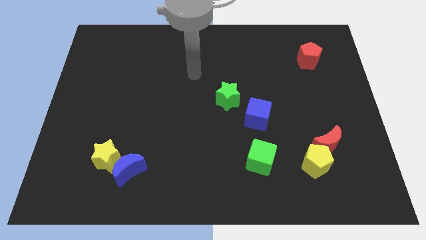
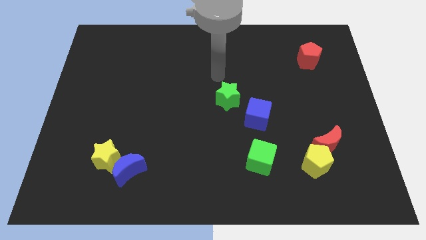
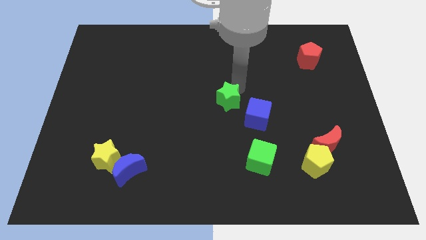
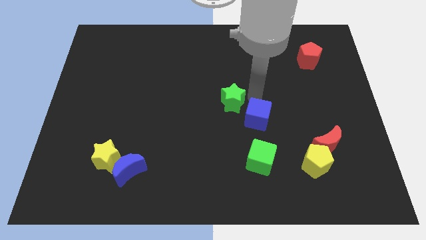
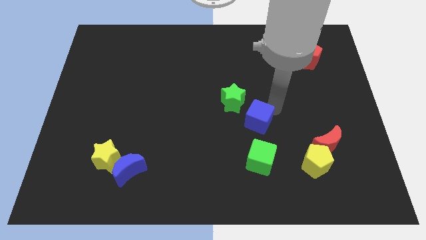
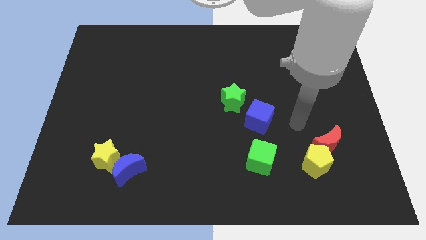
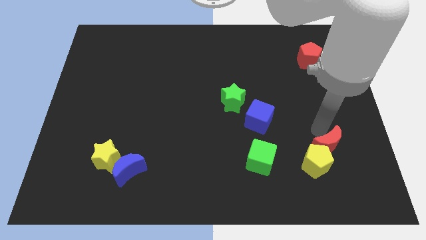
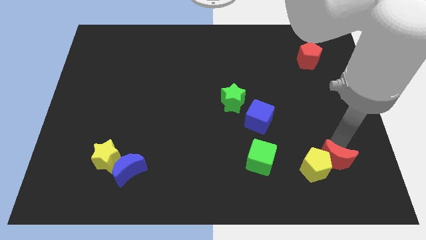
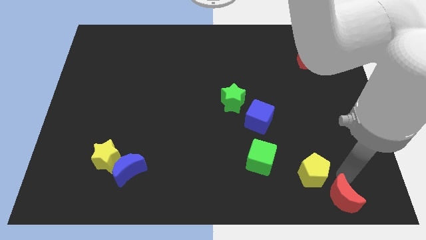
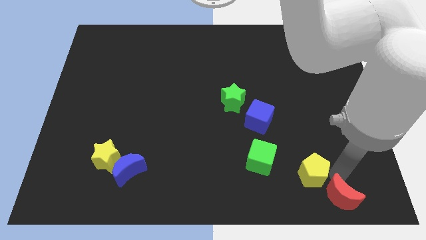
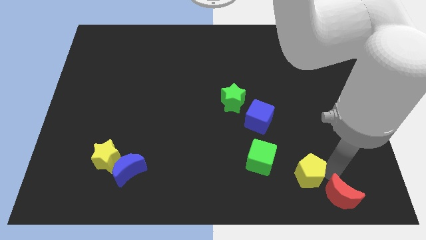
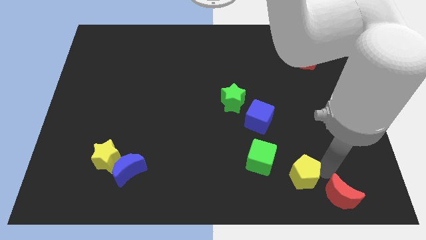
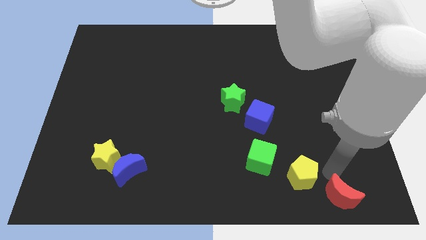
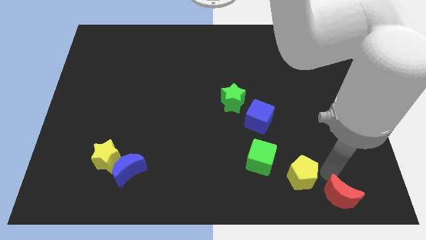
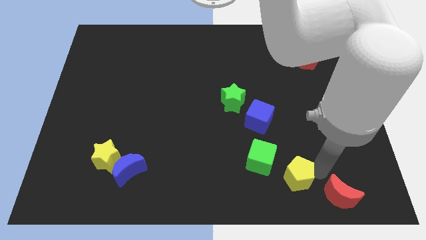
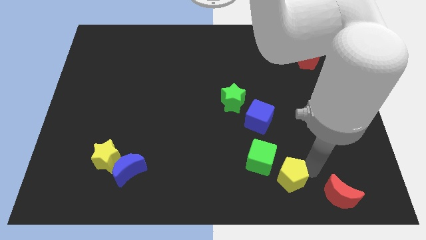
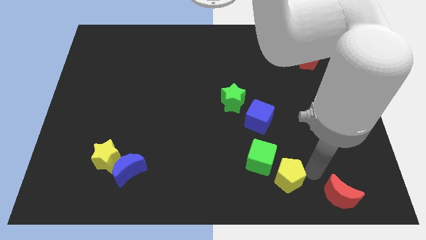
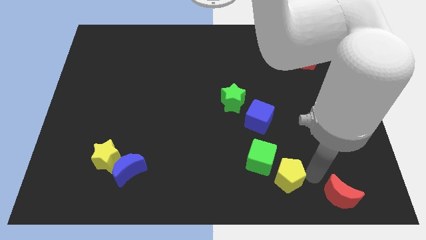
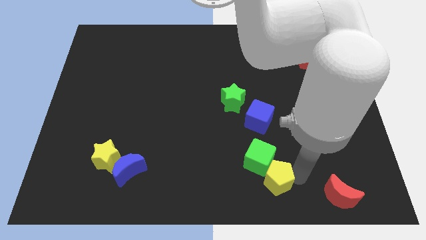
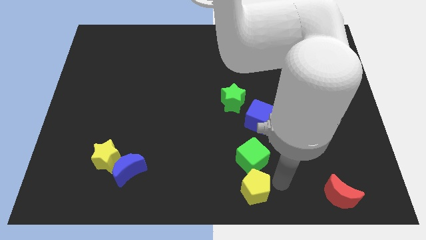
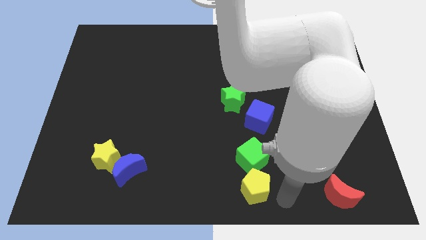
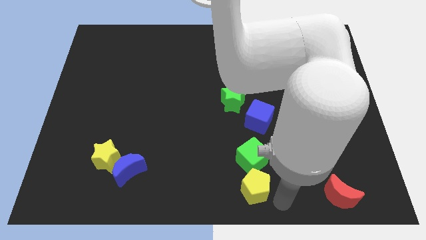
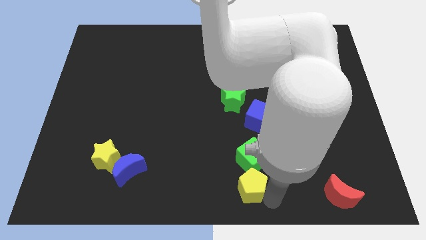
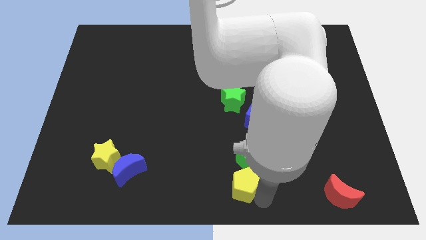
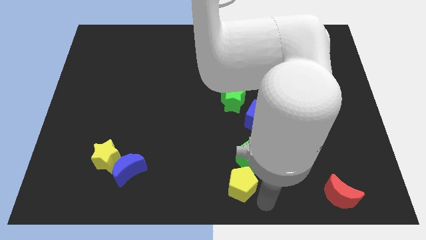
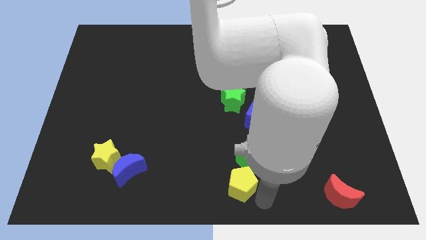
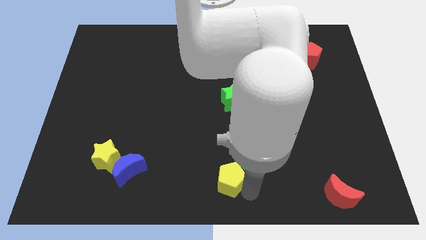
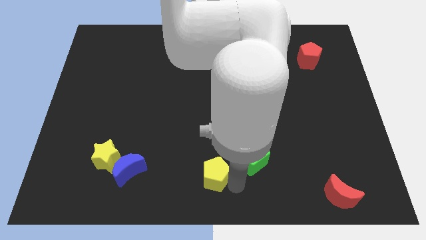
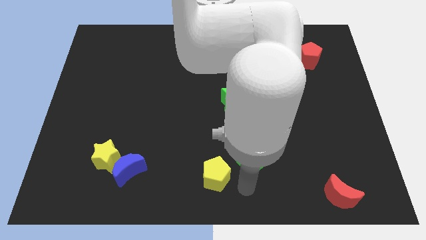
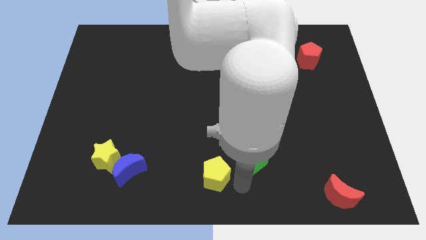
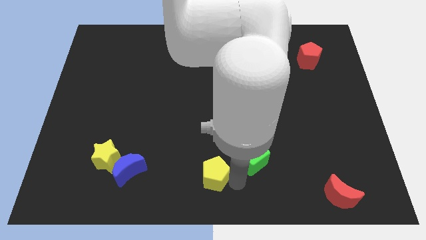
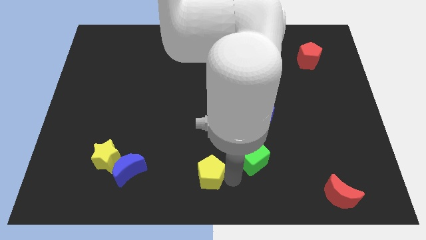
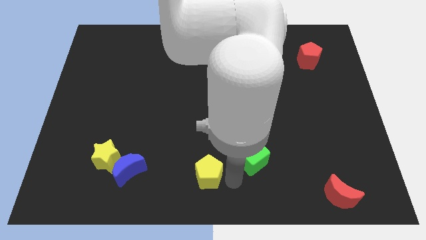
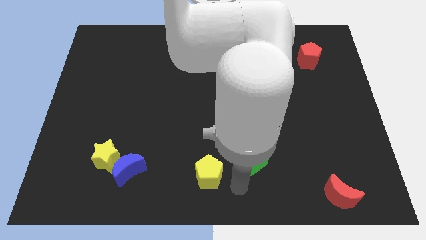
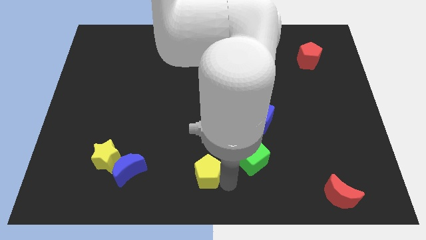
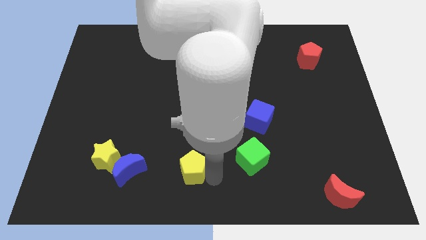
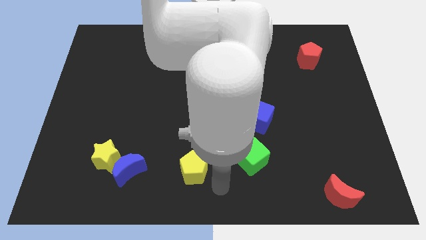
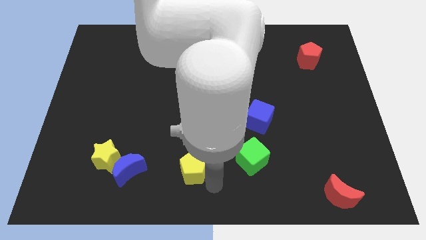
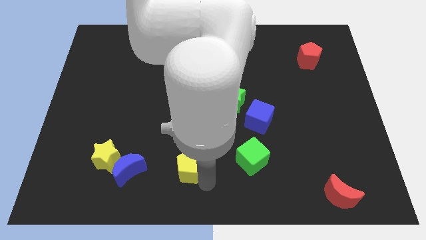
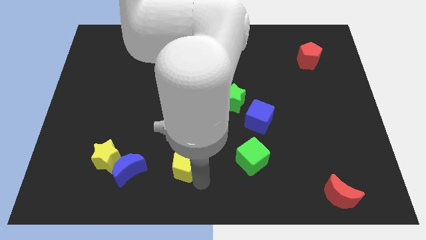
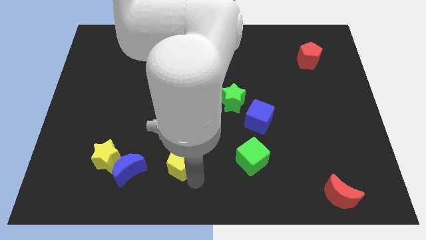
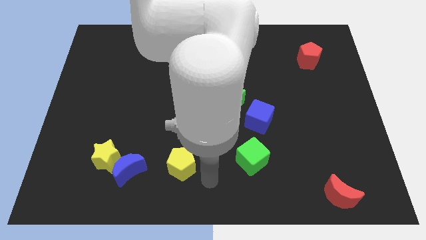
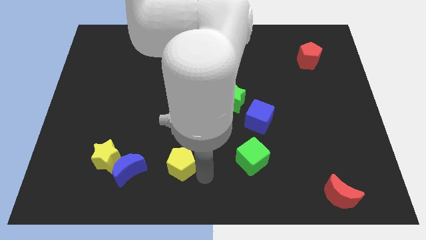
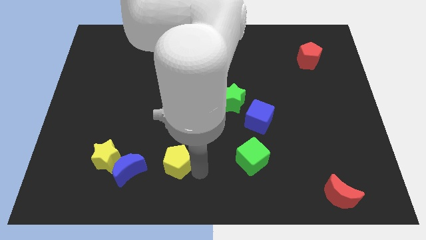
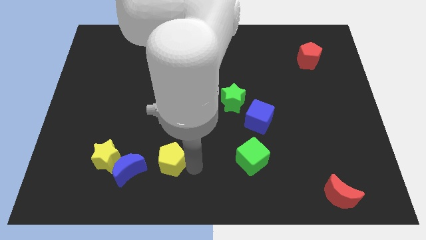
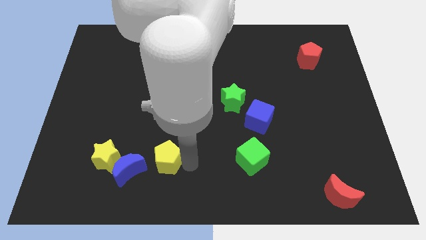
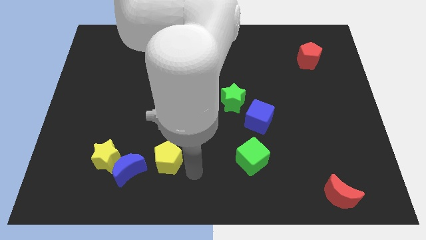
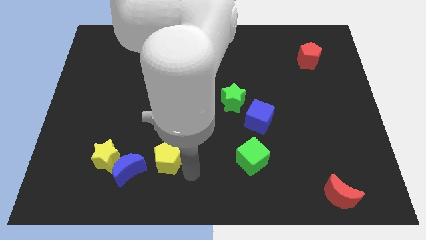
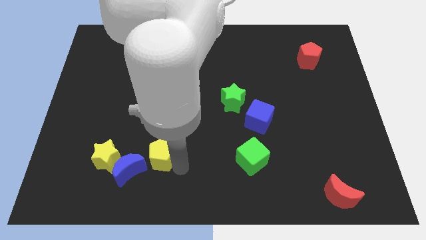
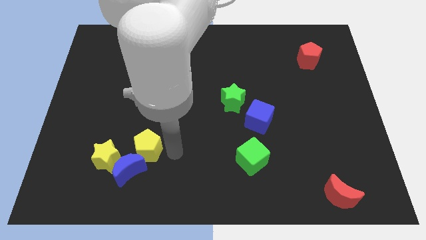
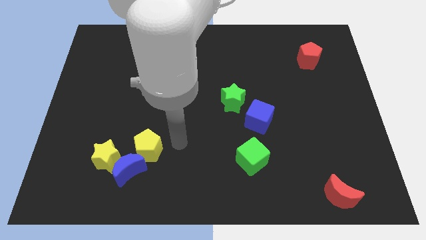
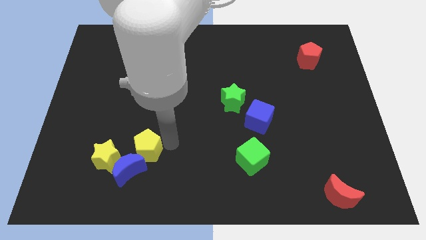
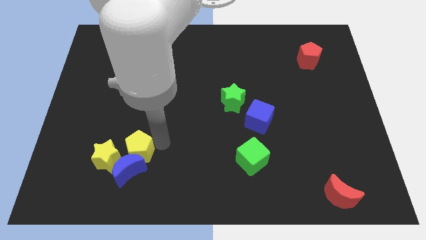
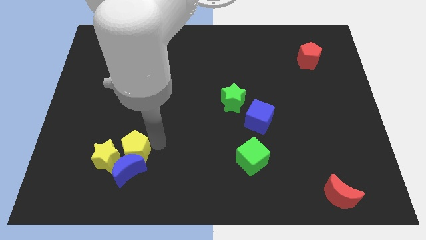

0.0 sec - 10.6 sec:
move the yellow pentagon next to the yellow star

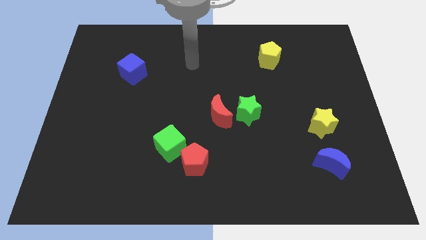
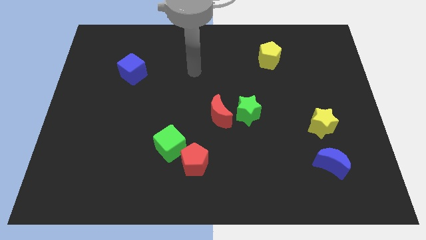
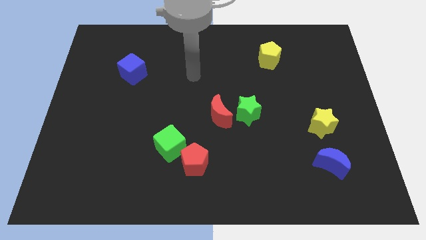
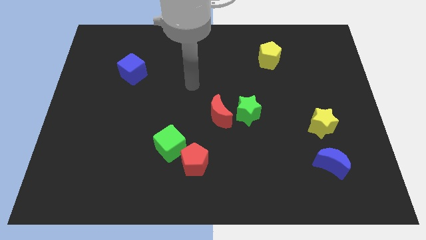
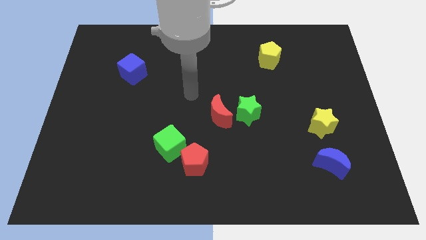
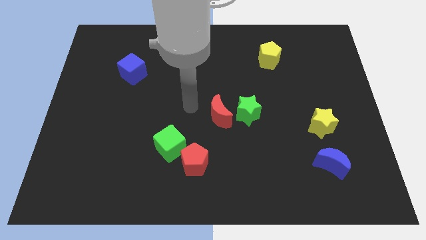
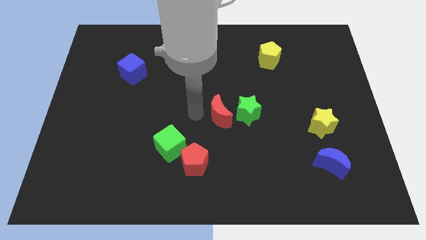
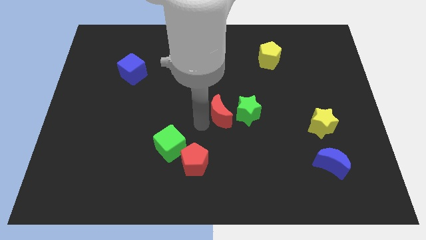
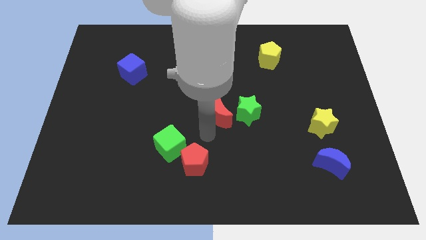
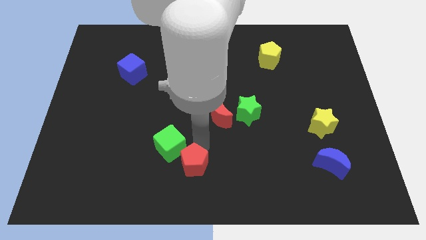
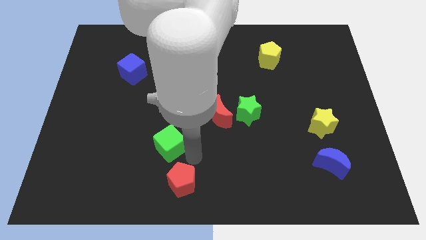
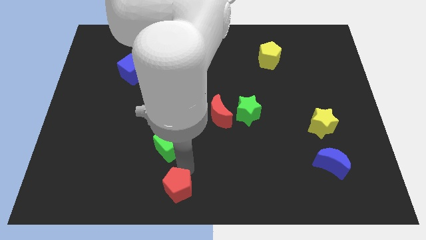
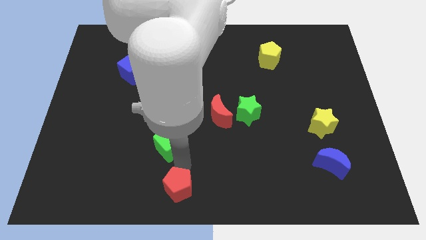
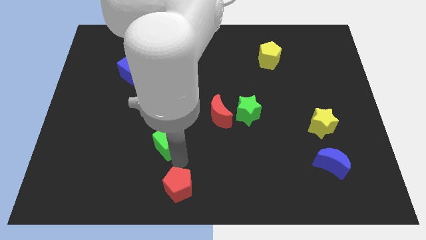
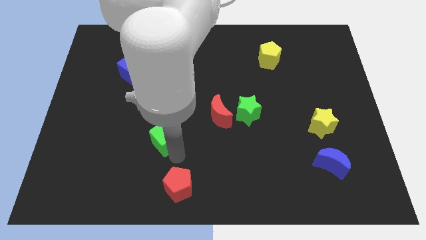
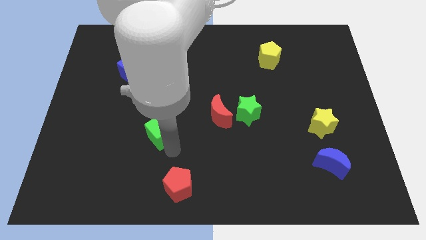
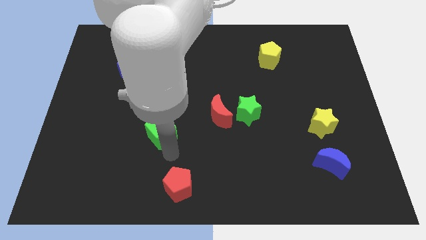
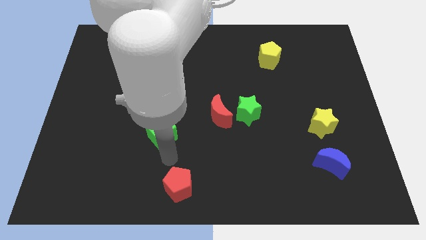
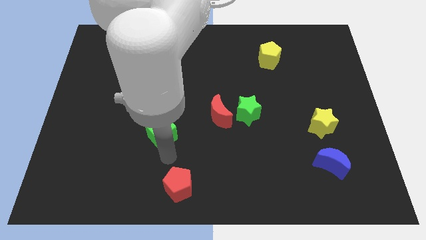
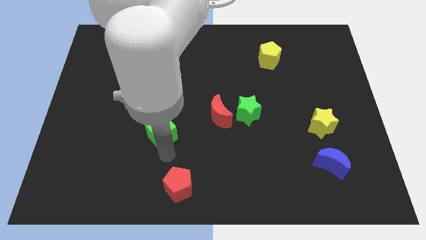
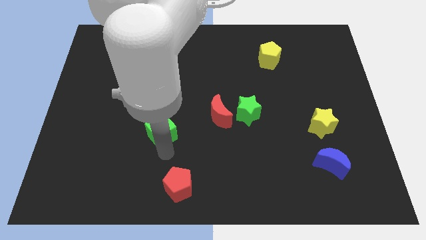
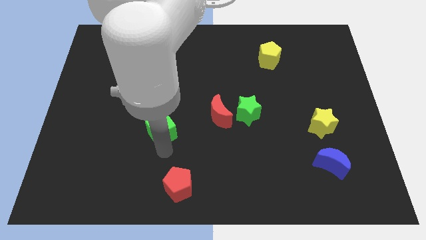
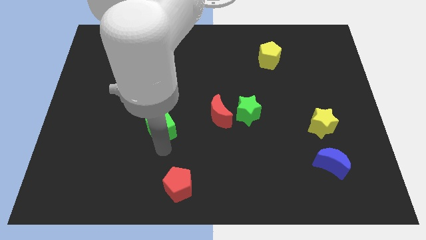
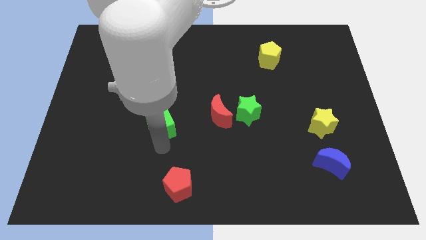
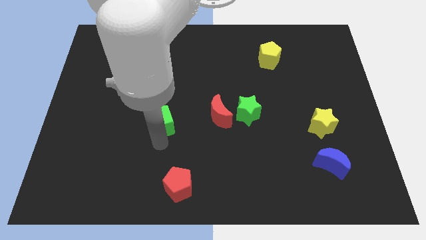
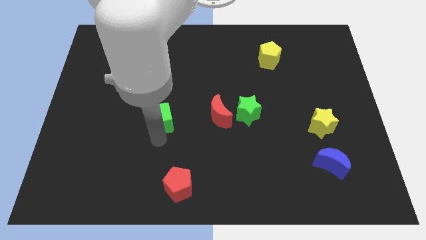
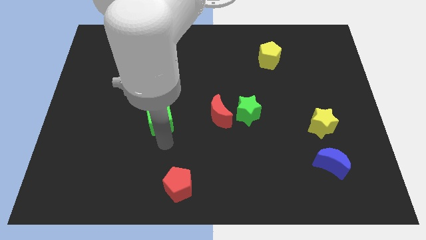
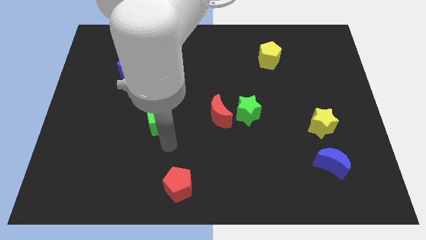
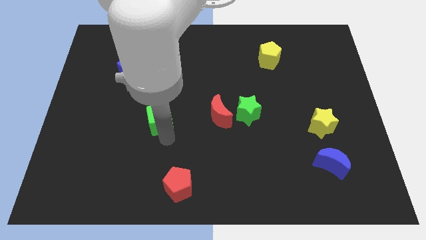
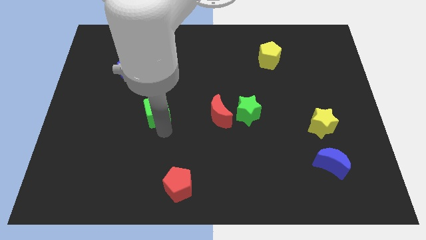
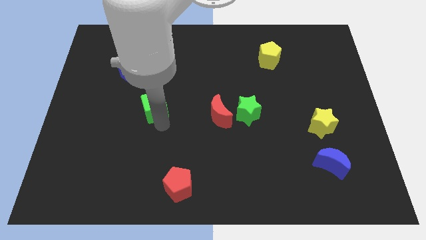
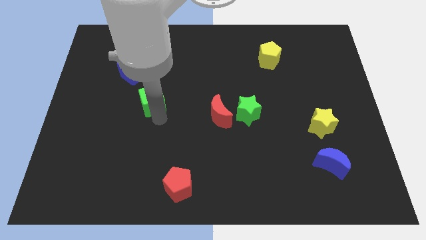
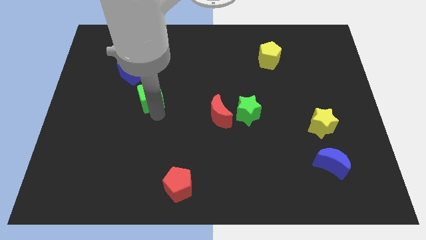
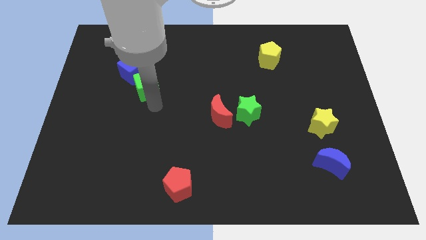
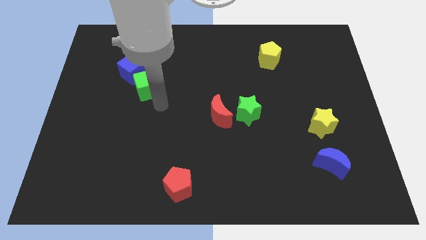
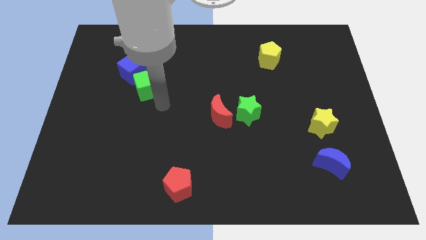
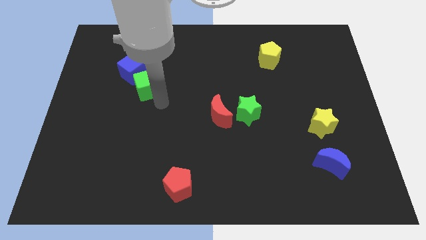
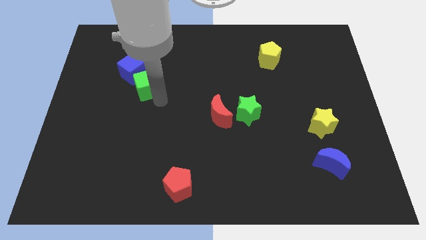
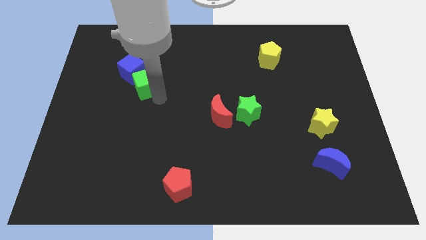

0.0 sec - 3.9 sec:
put the green cube close to the blue cube
